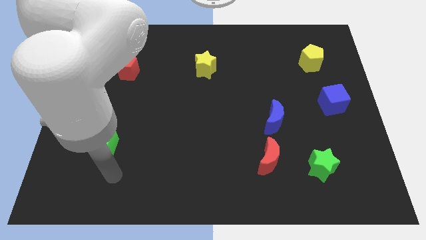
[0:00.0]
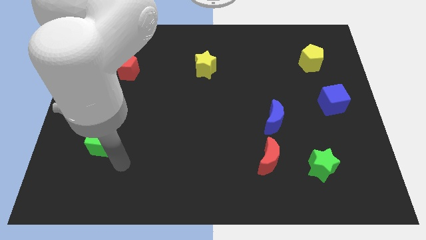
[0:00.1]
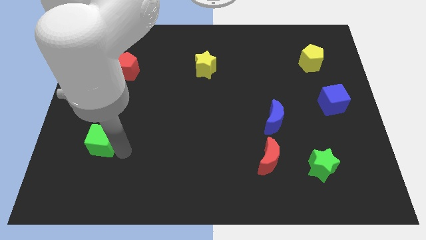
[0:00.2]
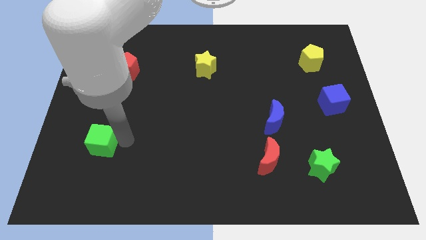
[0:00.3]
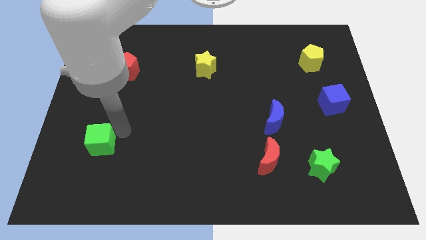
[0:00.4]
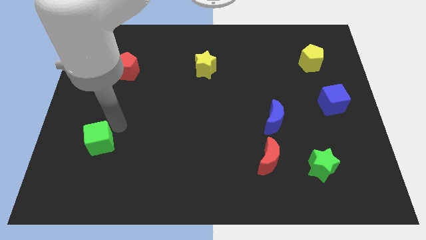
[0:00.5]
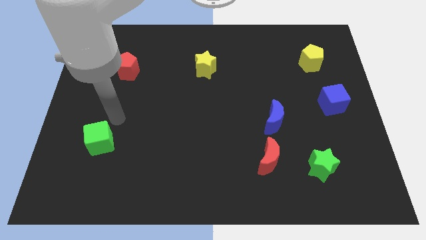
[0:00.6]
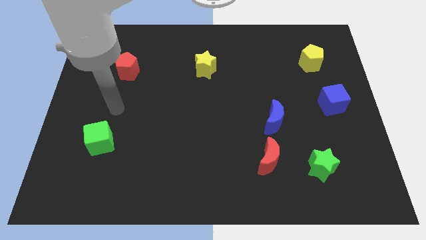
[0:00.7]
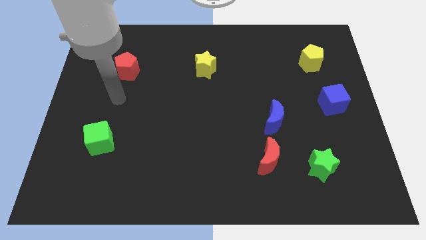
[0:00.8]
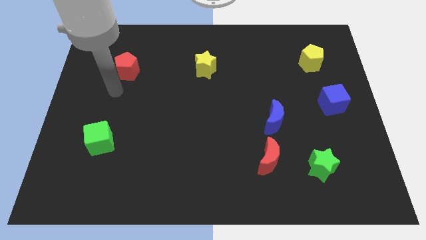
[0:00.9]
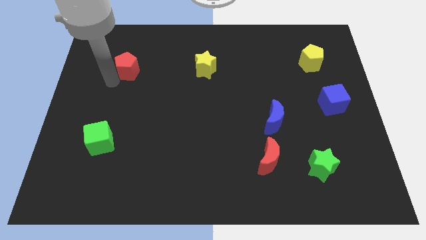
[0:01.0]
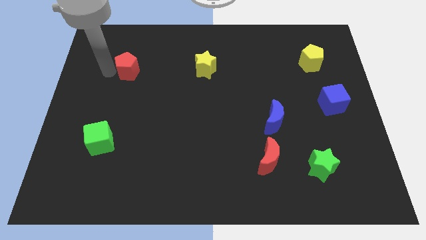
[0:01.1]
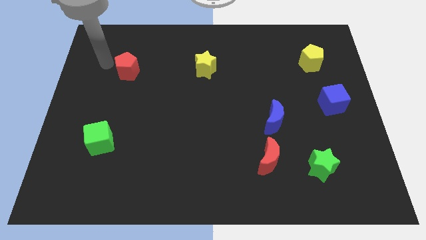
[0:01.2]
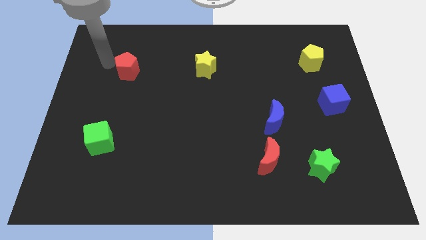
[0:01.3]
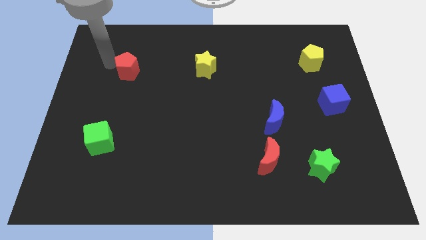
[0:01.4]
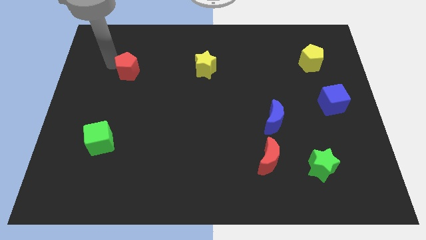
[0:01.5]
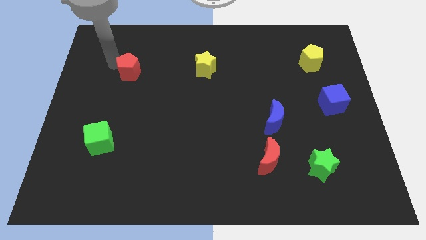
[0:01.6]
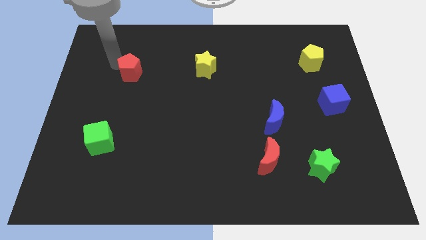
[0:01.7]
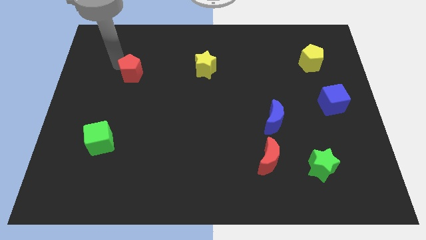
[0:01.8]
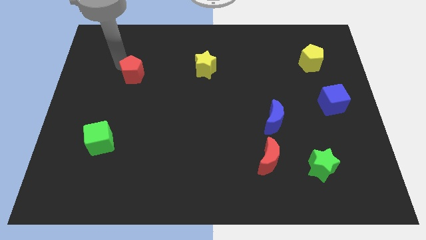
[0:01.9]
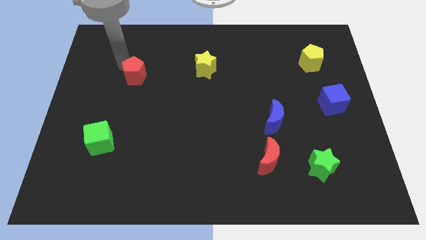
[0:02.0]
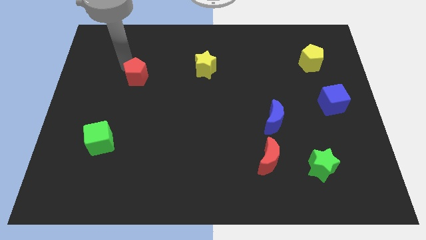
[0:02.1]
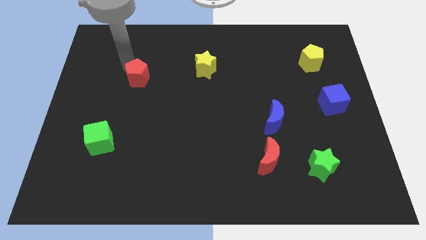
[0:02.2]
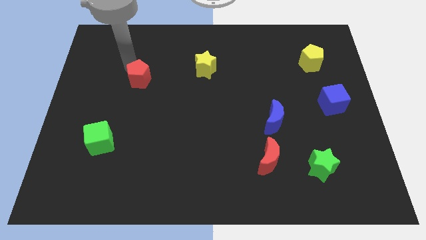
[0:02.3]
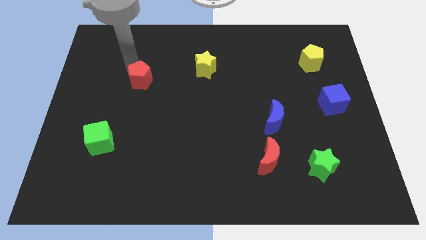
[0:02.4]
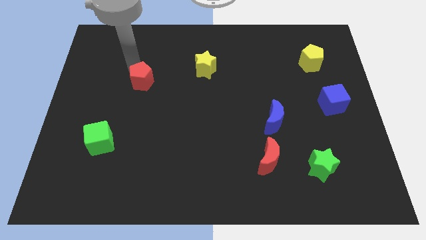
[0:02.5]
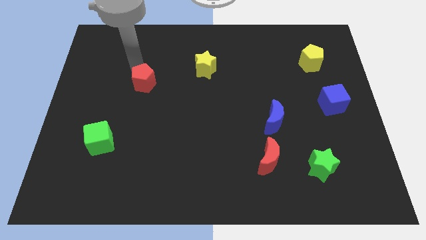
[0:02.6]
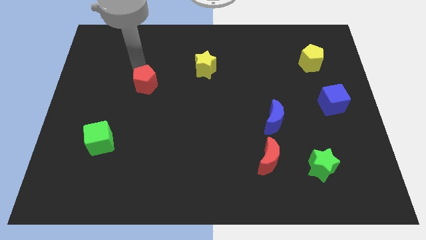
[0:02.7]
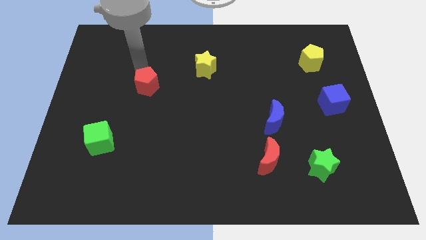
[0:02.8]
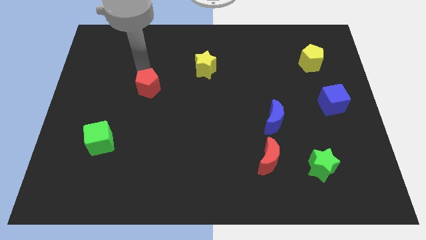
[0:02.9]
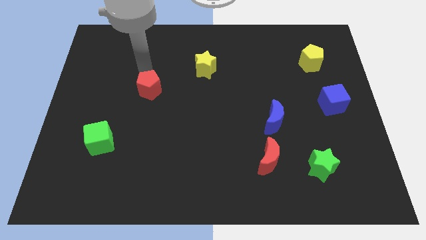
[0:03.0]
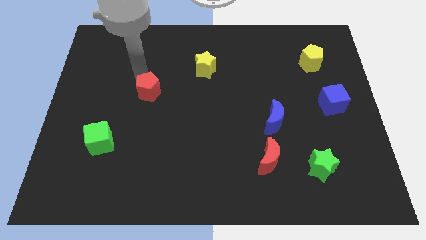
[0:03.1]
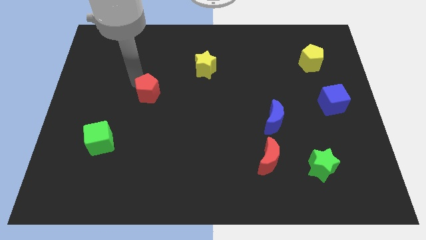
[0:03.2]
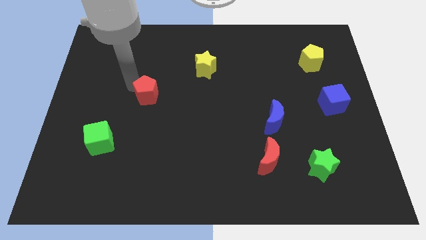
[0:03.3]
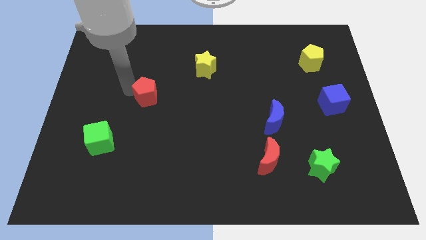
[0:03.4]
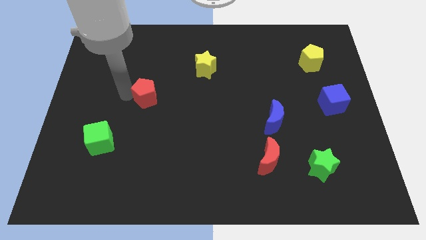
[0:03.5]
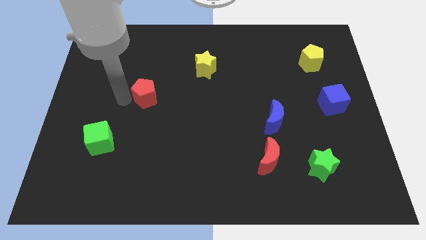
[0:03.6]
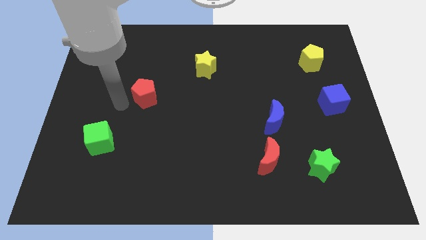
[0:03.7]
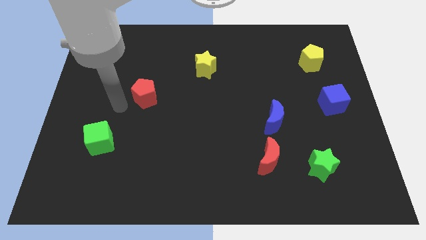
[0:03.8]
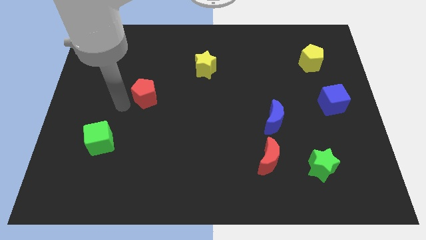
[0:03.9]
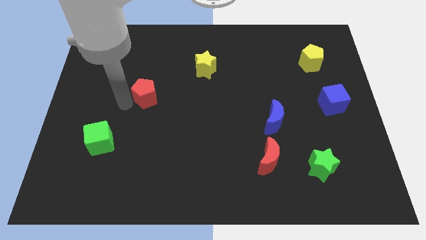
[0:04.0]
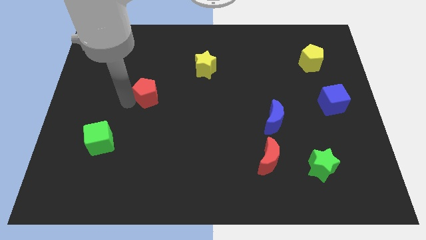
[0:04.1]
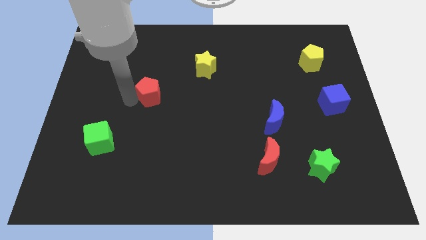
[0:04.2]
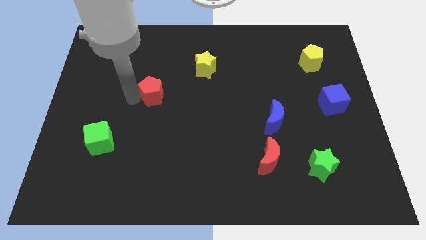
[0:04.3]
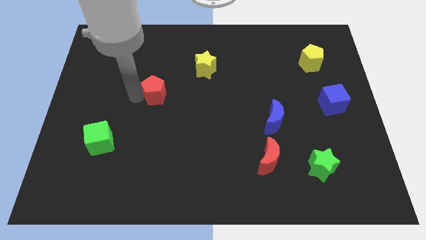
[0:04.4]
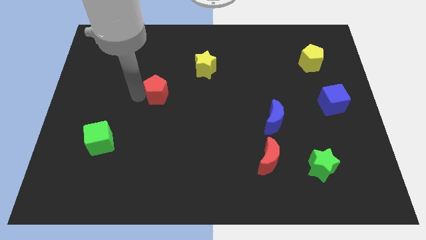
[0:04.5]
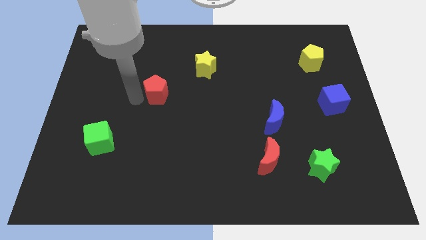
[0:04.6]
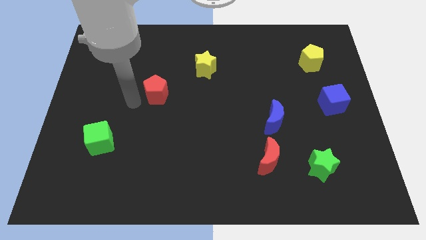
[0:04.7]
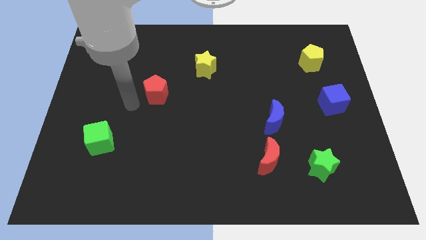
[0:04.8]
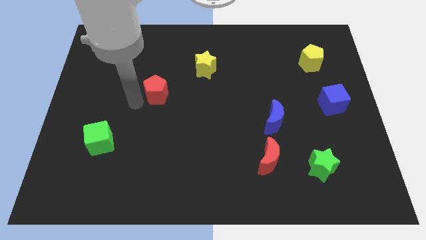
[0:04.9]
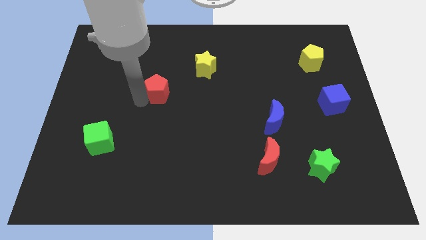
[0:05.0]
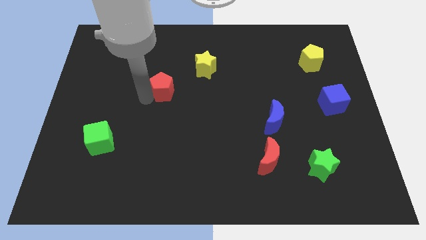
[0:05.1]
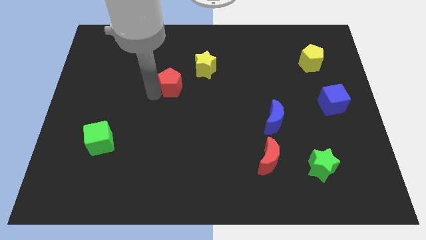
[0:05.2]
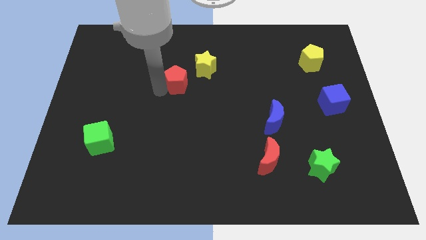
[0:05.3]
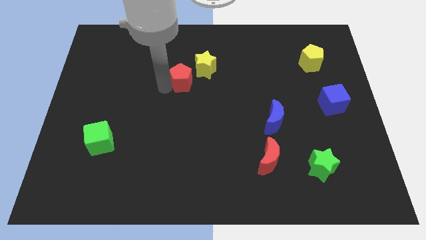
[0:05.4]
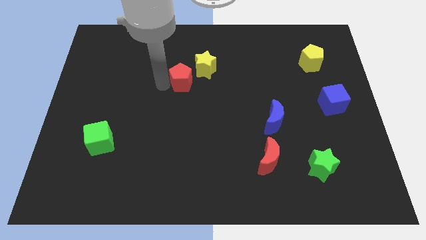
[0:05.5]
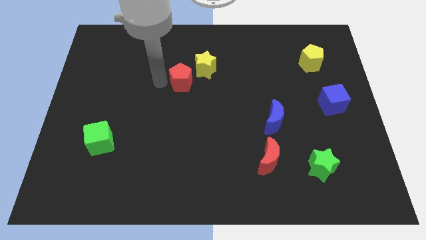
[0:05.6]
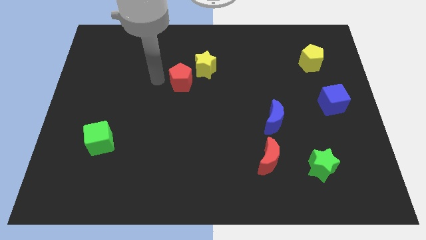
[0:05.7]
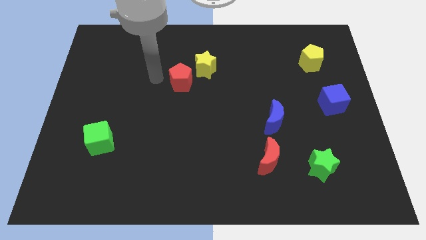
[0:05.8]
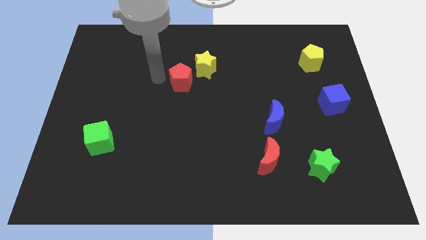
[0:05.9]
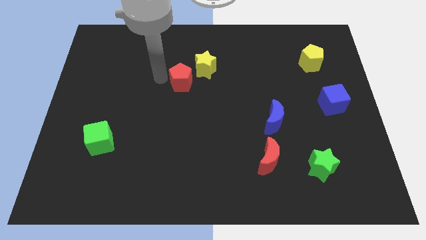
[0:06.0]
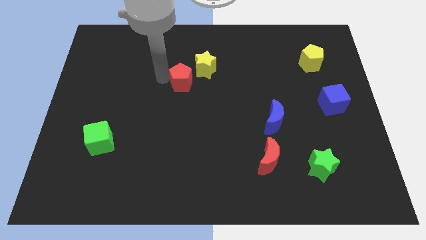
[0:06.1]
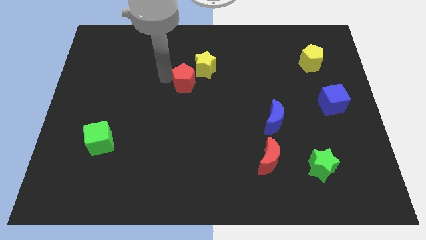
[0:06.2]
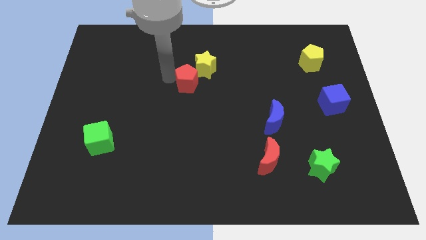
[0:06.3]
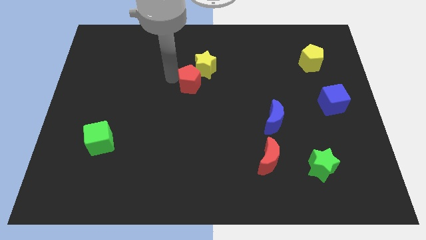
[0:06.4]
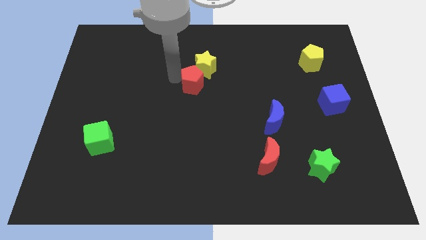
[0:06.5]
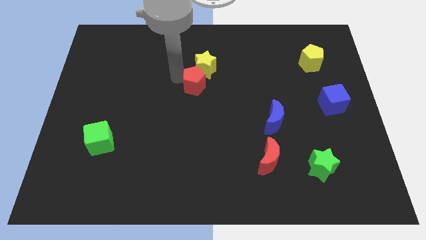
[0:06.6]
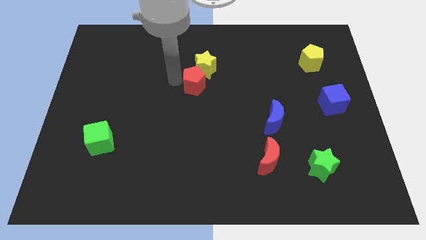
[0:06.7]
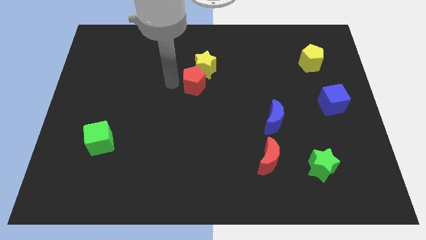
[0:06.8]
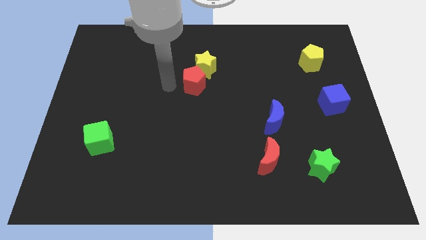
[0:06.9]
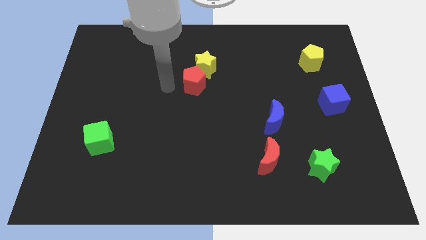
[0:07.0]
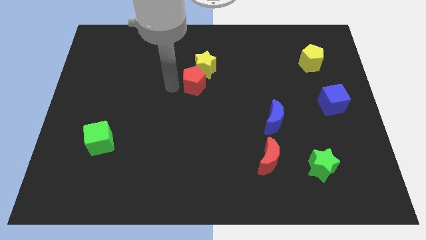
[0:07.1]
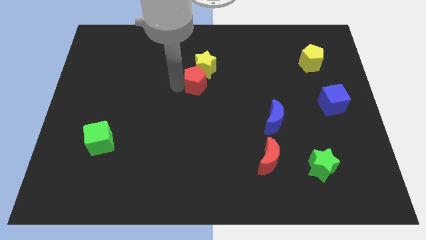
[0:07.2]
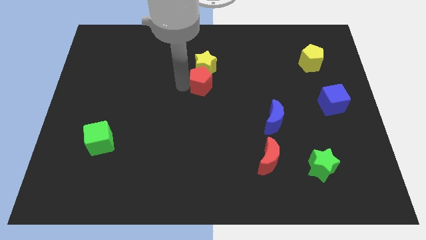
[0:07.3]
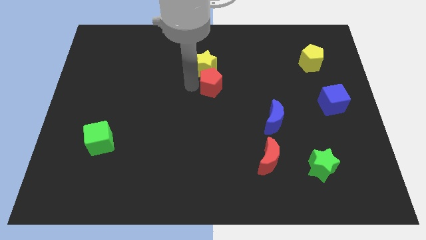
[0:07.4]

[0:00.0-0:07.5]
move the red pentagon to the right

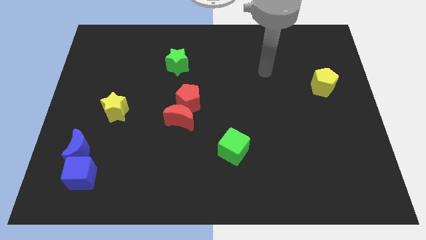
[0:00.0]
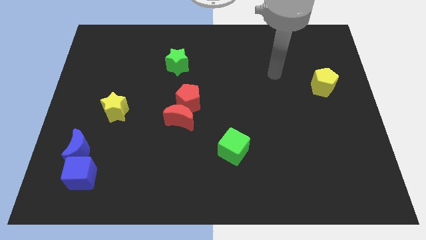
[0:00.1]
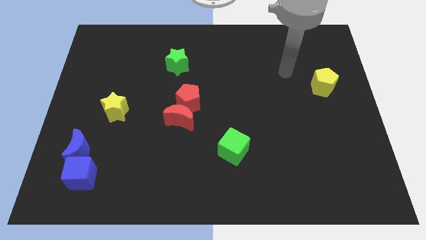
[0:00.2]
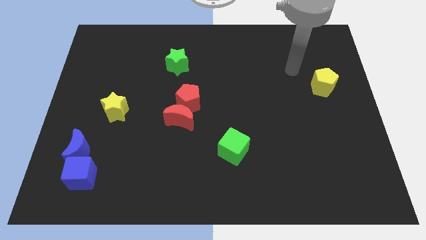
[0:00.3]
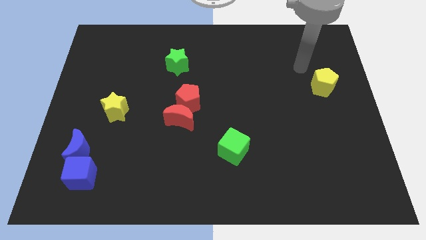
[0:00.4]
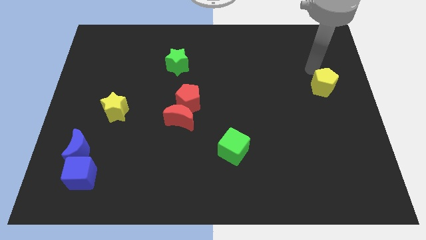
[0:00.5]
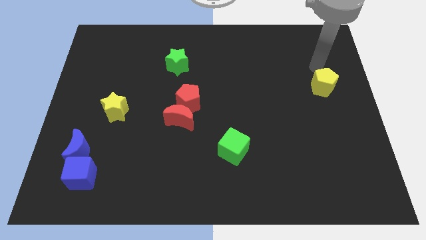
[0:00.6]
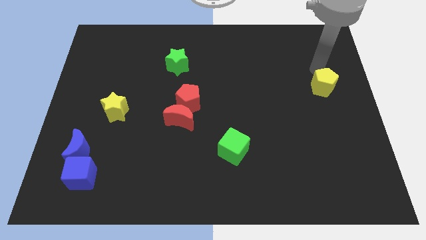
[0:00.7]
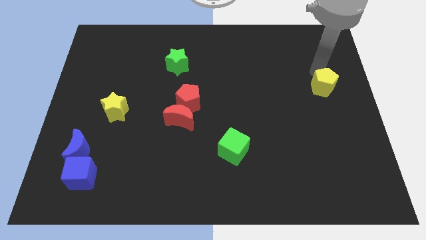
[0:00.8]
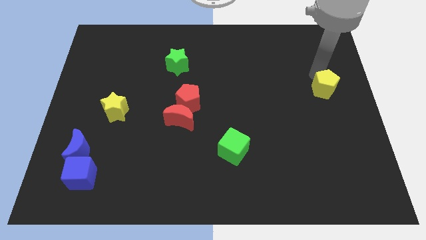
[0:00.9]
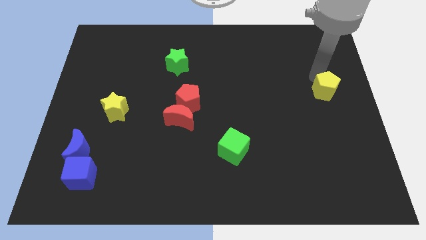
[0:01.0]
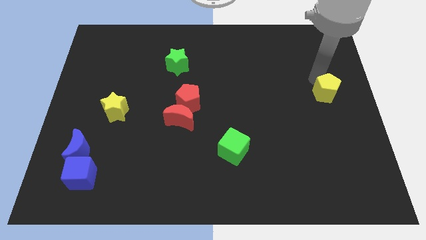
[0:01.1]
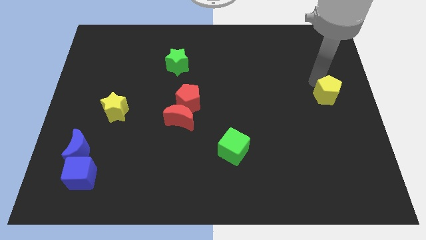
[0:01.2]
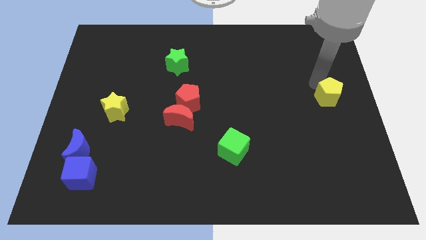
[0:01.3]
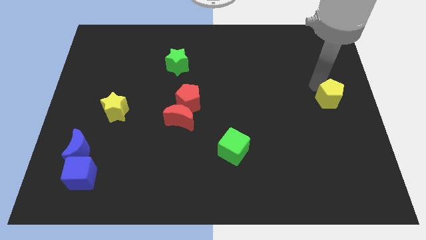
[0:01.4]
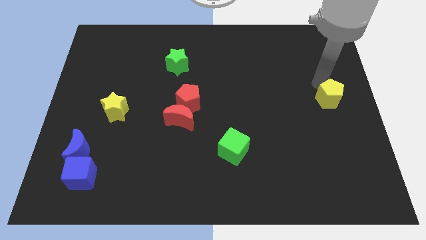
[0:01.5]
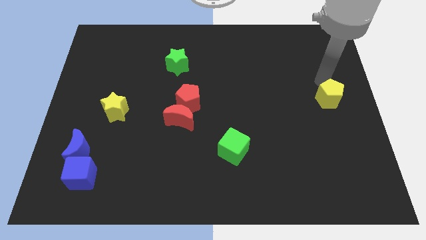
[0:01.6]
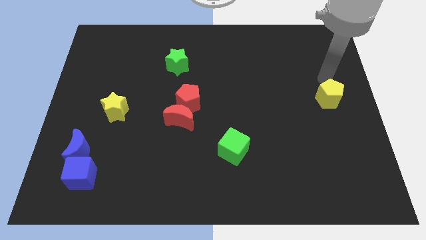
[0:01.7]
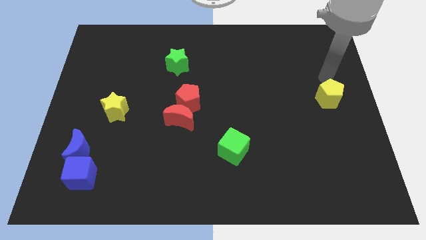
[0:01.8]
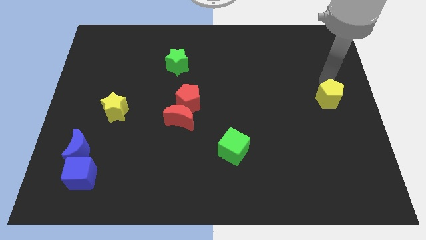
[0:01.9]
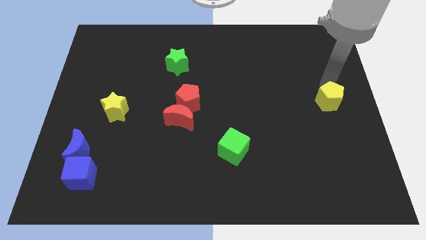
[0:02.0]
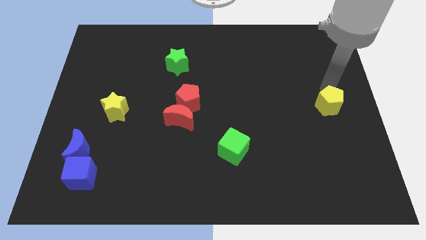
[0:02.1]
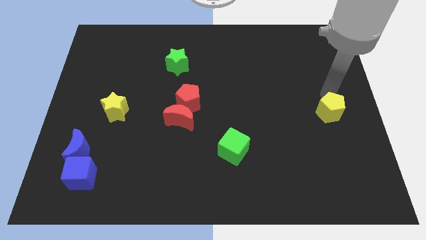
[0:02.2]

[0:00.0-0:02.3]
push the yellow pentagon down somewhat
